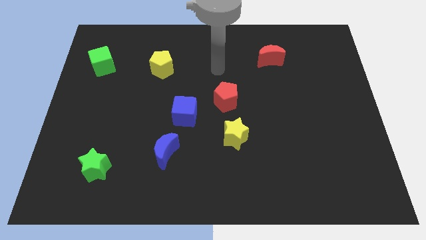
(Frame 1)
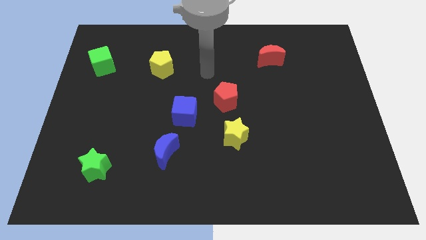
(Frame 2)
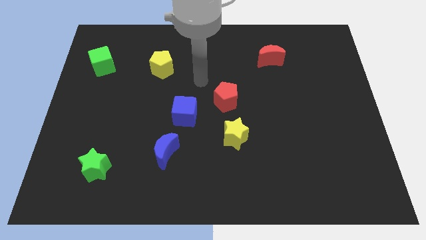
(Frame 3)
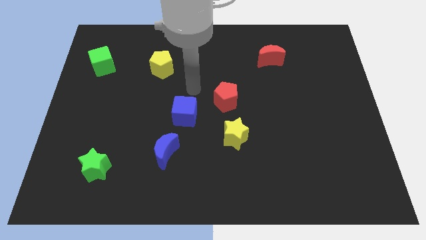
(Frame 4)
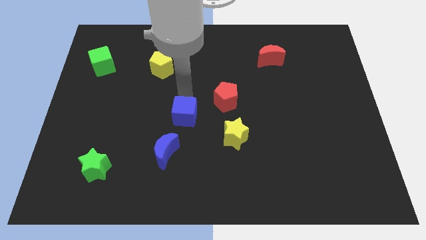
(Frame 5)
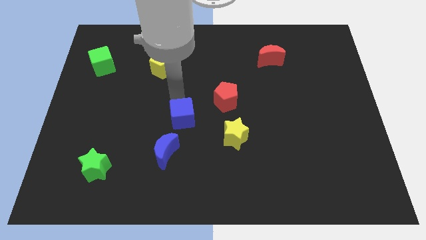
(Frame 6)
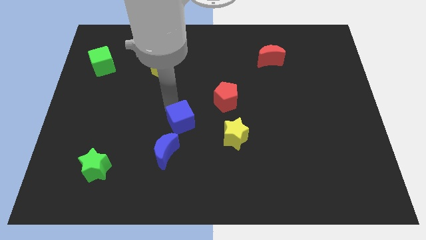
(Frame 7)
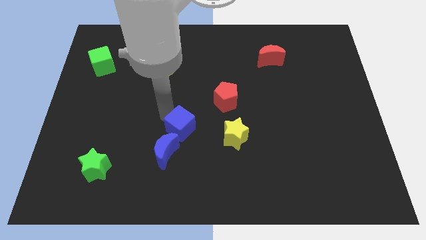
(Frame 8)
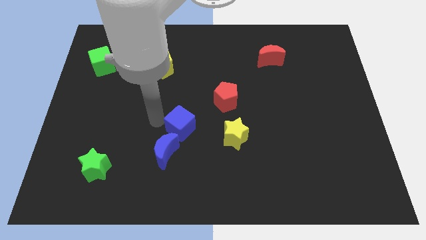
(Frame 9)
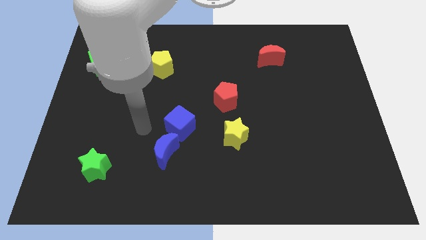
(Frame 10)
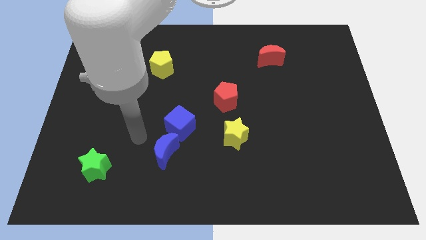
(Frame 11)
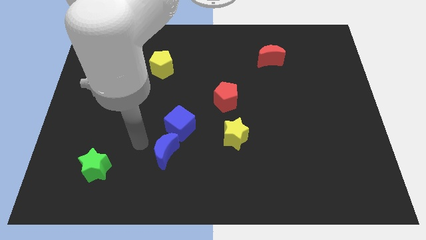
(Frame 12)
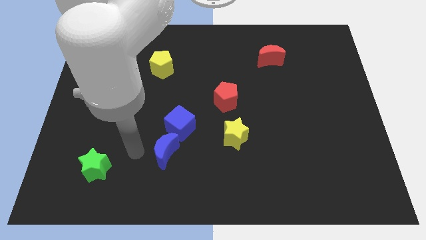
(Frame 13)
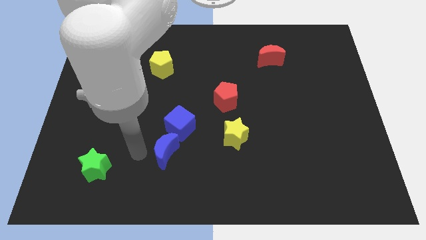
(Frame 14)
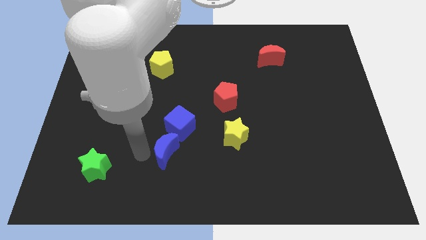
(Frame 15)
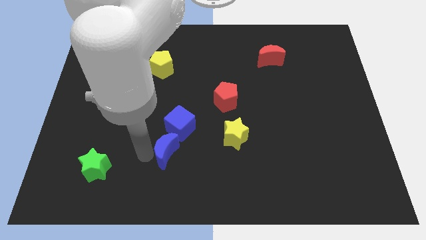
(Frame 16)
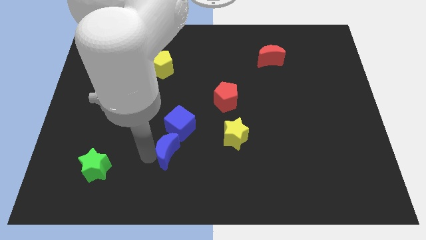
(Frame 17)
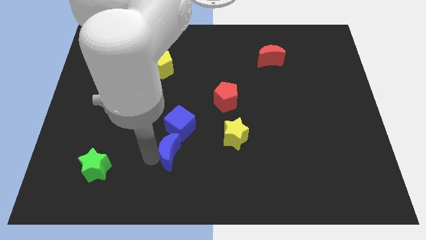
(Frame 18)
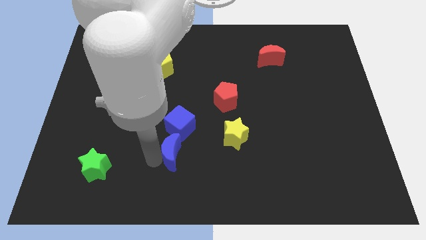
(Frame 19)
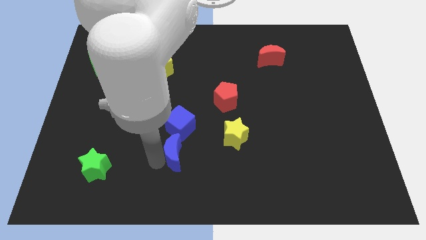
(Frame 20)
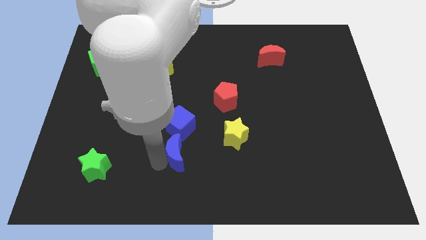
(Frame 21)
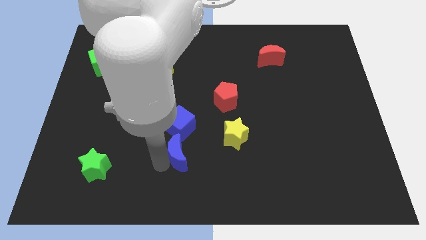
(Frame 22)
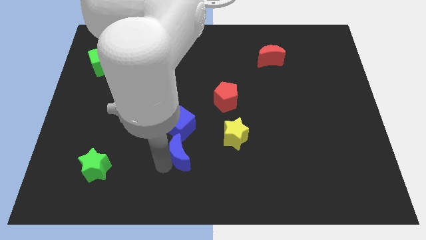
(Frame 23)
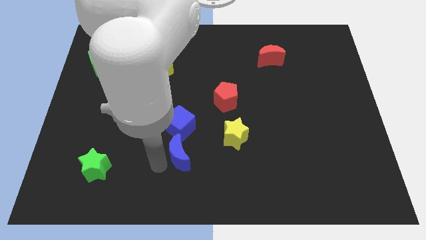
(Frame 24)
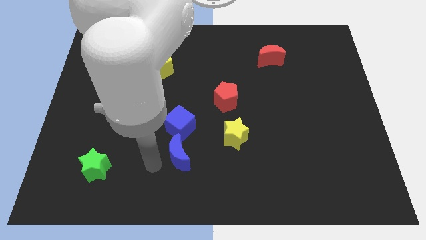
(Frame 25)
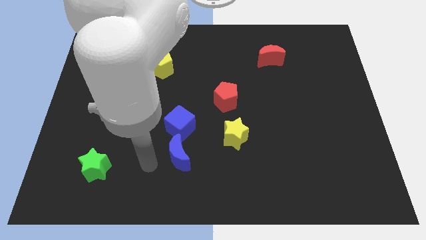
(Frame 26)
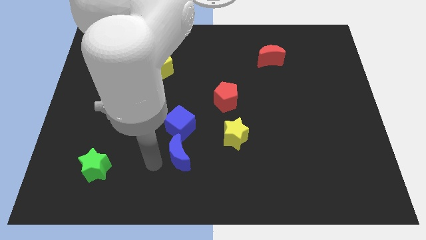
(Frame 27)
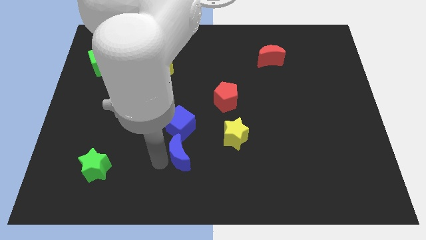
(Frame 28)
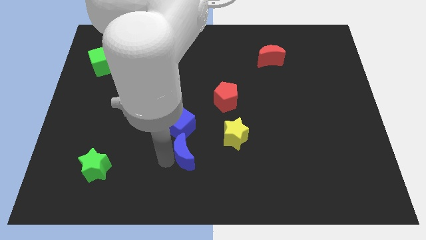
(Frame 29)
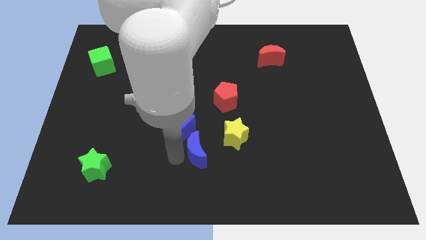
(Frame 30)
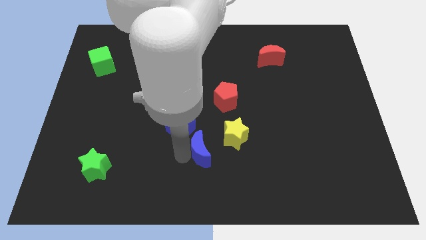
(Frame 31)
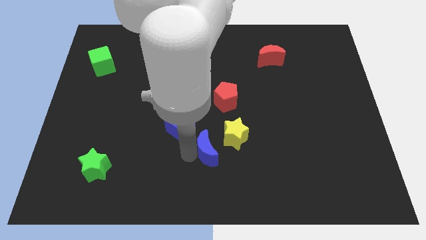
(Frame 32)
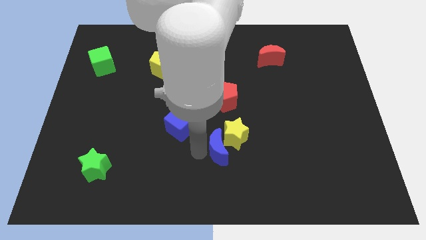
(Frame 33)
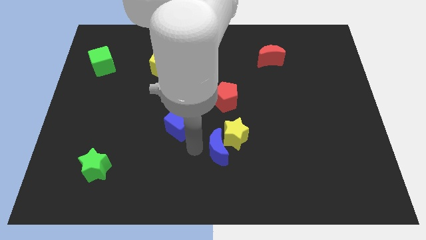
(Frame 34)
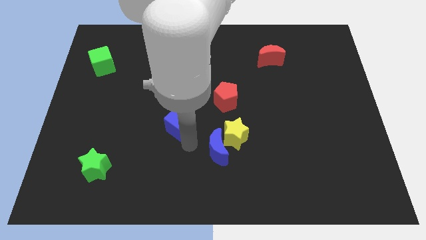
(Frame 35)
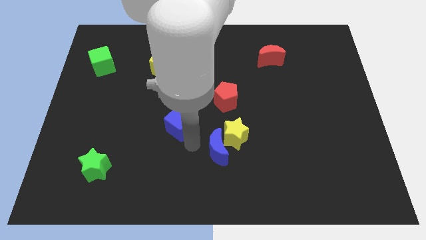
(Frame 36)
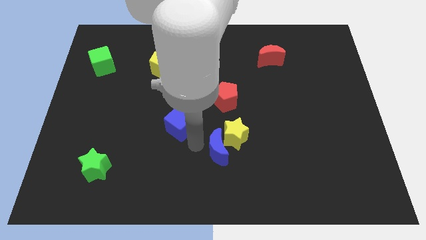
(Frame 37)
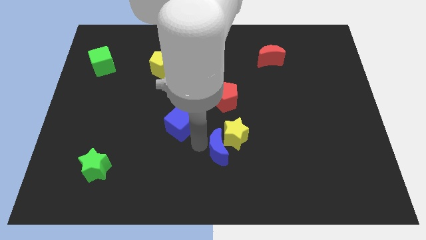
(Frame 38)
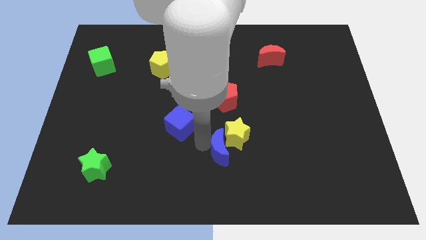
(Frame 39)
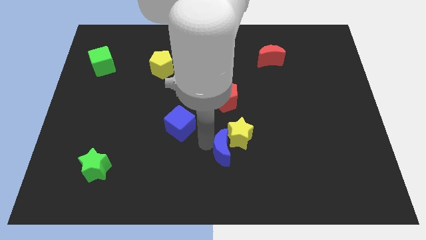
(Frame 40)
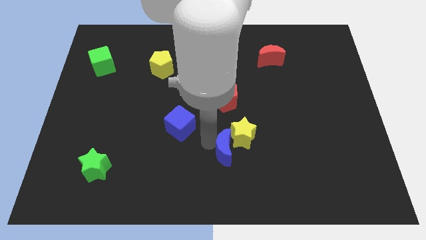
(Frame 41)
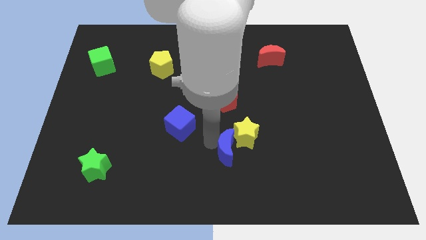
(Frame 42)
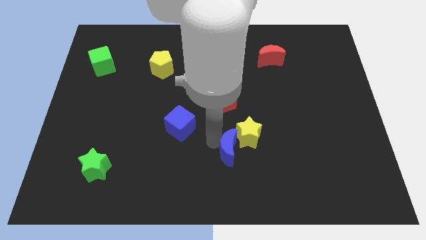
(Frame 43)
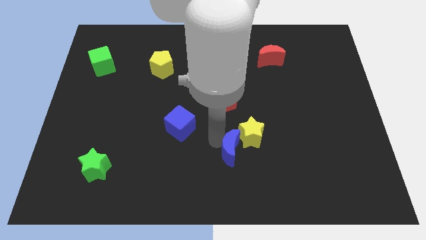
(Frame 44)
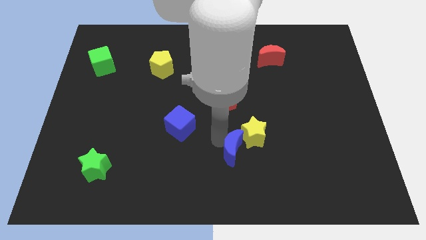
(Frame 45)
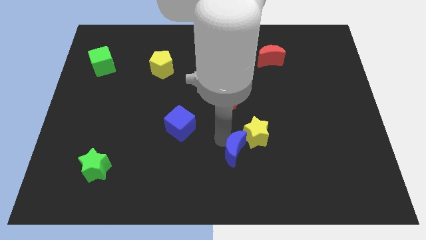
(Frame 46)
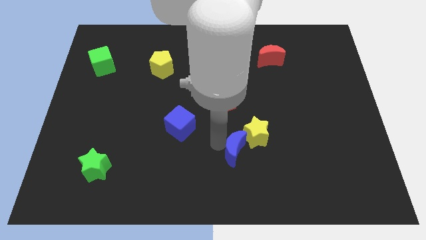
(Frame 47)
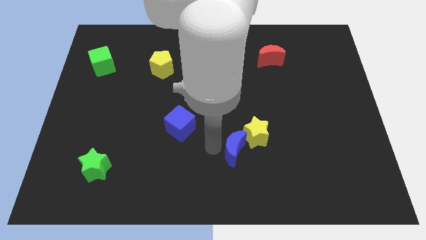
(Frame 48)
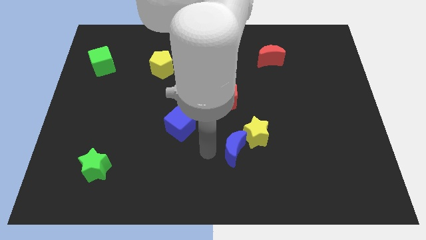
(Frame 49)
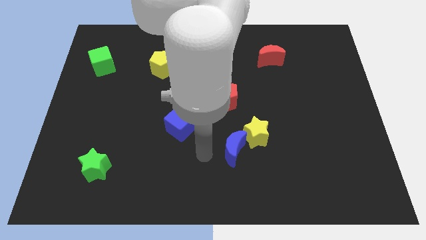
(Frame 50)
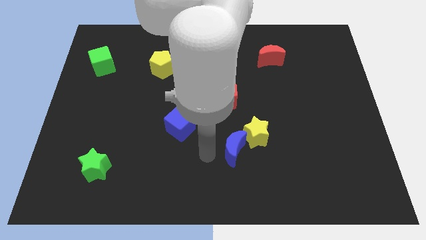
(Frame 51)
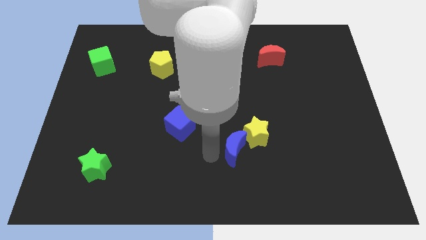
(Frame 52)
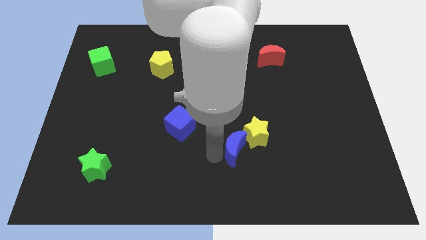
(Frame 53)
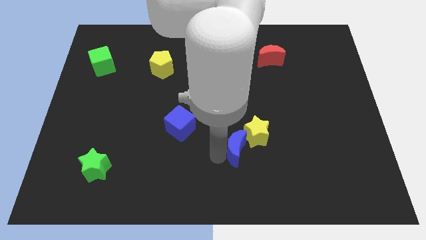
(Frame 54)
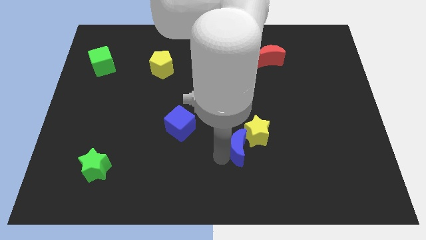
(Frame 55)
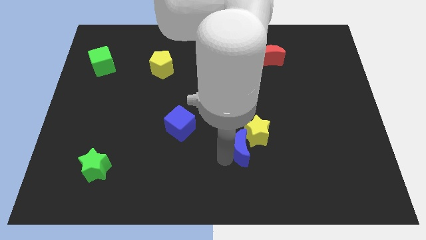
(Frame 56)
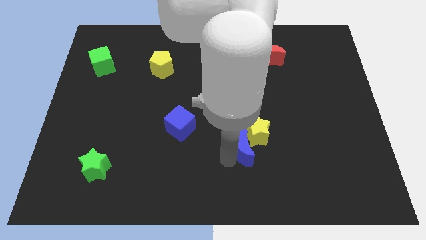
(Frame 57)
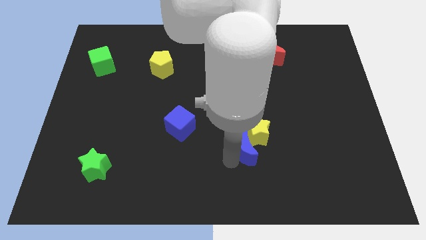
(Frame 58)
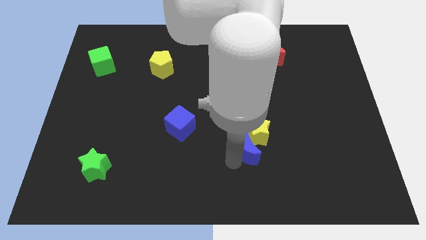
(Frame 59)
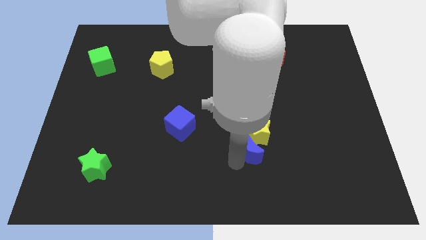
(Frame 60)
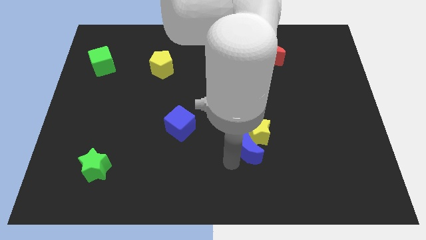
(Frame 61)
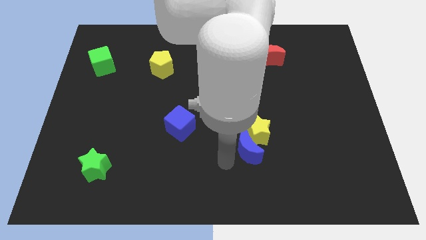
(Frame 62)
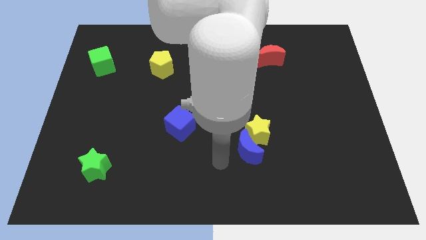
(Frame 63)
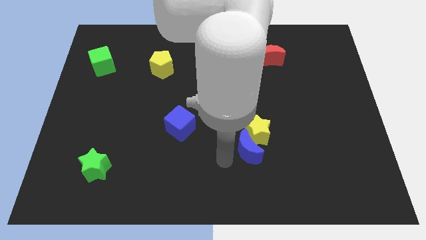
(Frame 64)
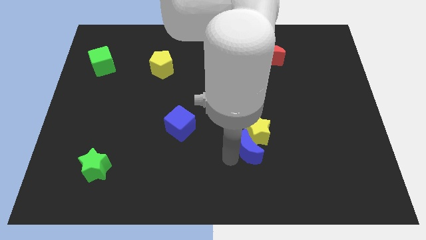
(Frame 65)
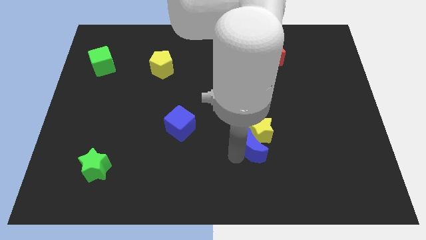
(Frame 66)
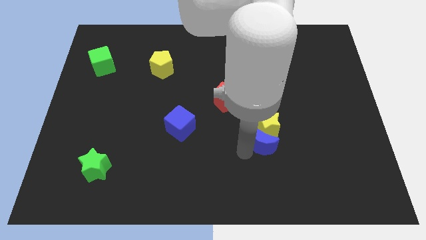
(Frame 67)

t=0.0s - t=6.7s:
slide the blue moon right

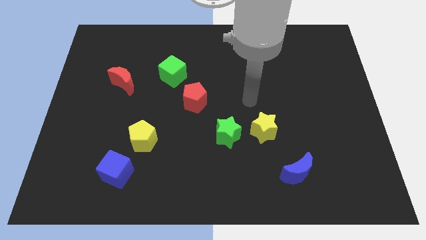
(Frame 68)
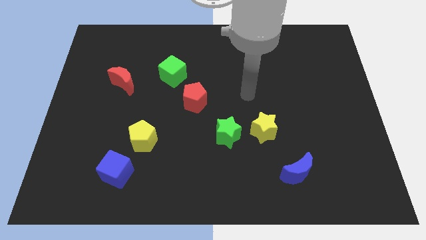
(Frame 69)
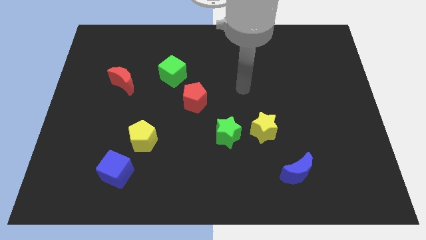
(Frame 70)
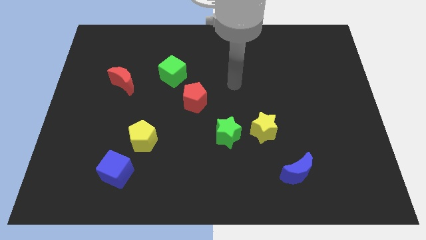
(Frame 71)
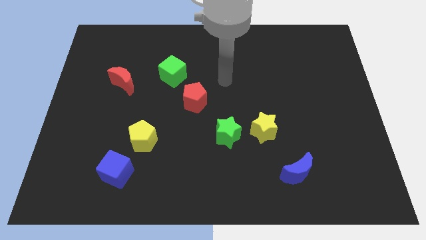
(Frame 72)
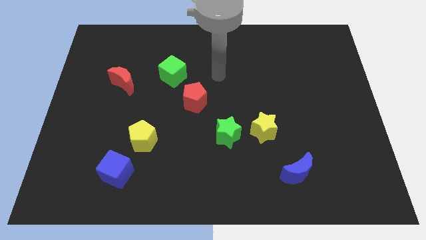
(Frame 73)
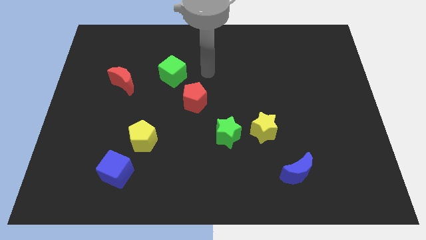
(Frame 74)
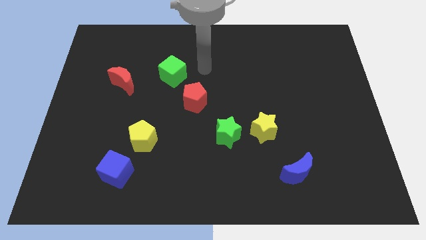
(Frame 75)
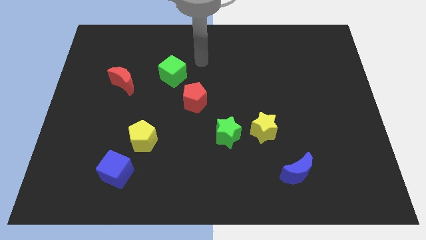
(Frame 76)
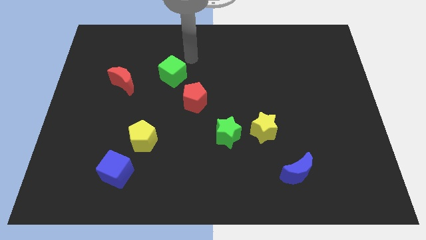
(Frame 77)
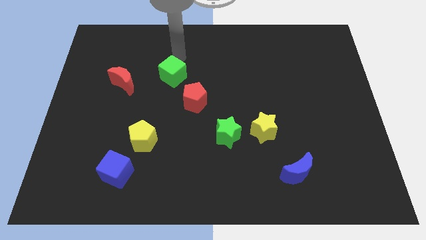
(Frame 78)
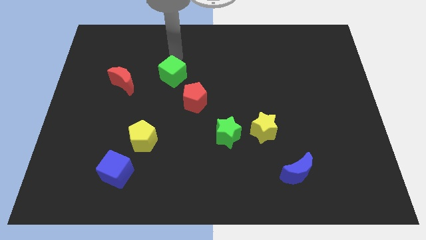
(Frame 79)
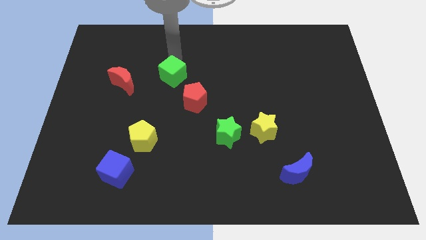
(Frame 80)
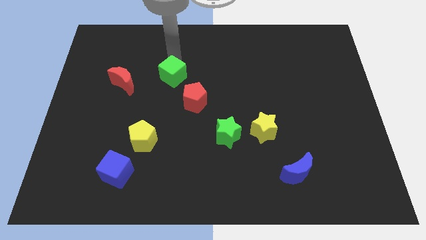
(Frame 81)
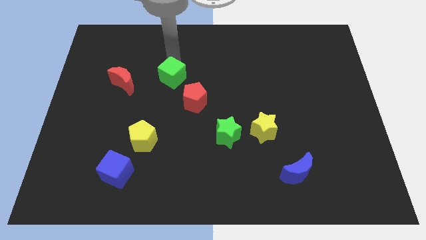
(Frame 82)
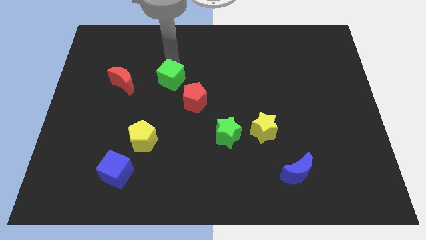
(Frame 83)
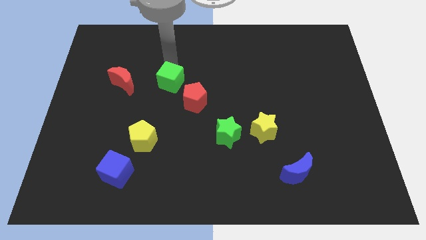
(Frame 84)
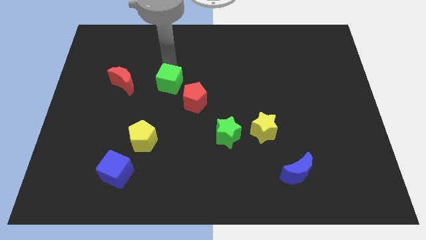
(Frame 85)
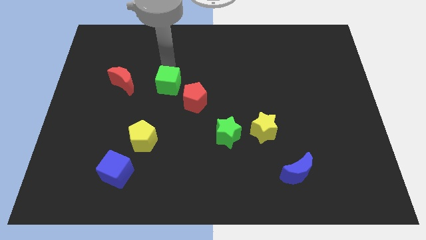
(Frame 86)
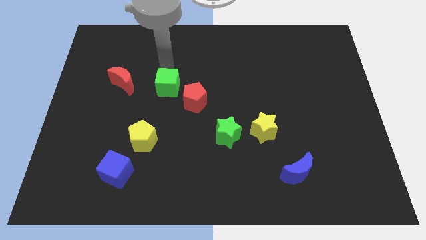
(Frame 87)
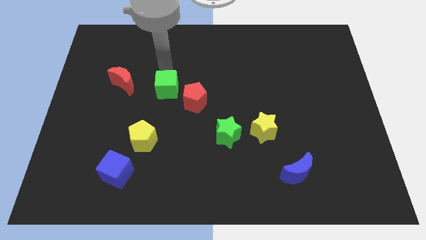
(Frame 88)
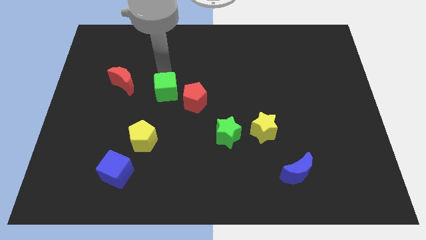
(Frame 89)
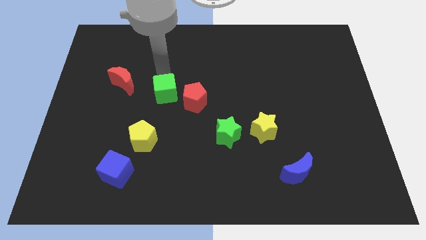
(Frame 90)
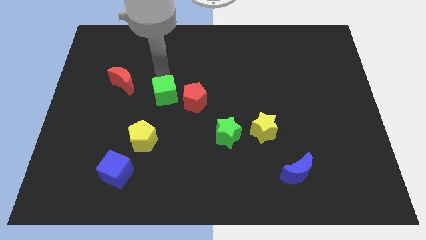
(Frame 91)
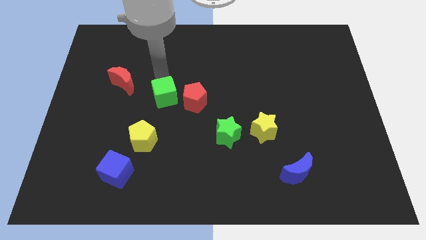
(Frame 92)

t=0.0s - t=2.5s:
slightly move the green cube downwards
